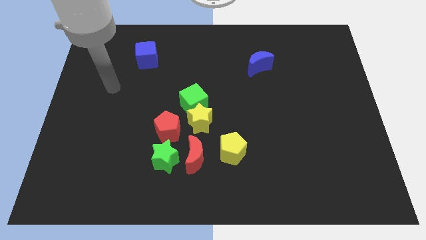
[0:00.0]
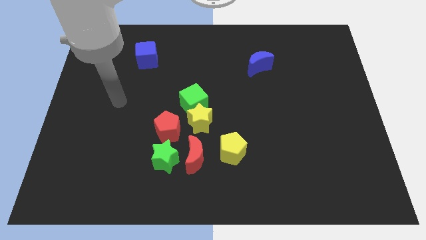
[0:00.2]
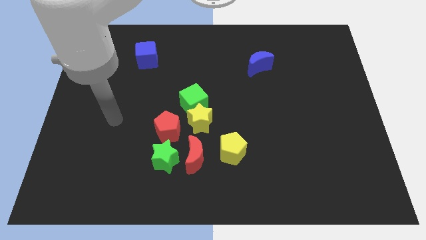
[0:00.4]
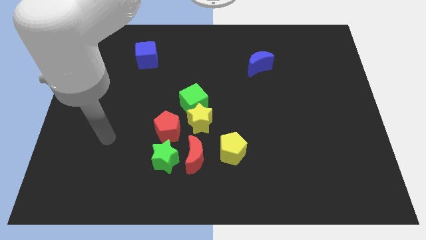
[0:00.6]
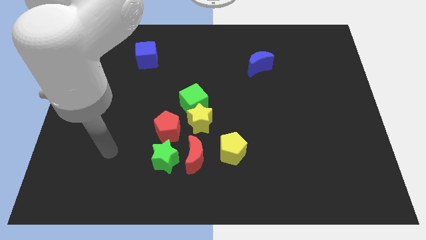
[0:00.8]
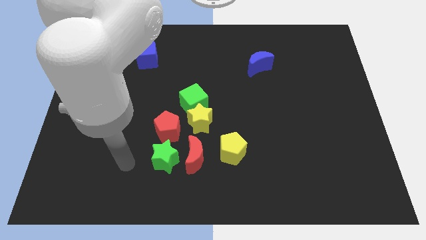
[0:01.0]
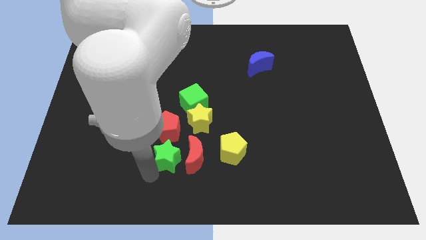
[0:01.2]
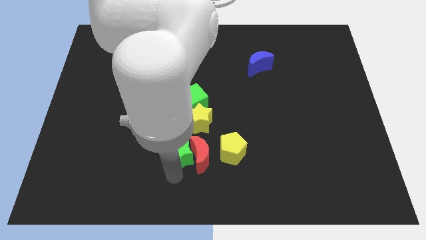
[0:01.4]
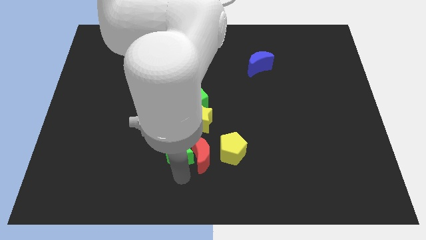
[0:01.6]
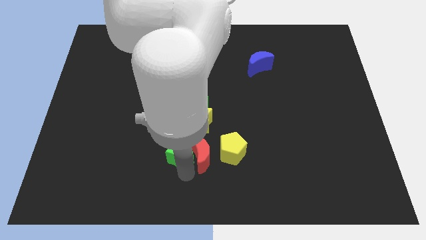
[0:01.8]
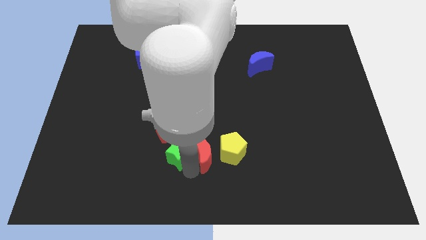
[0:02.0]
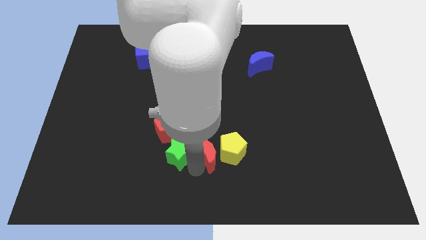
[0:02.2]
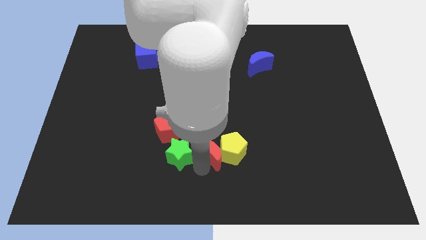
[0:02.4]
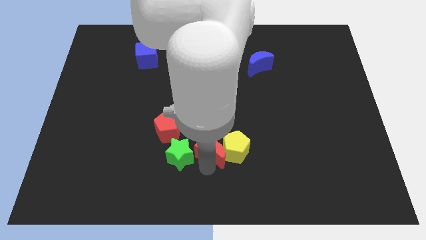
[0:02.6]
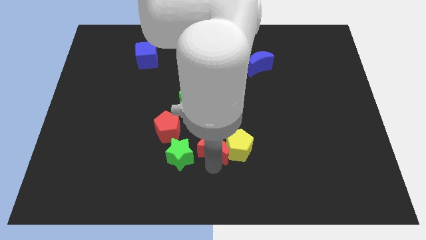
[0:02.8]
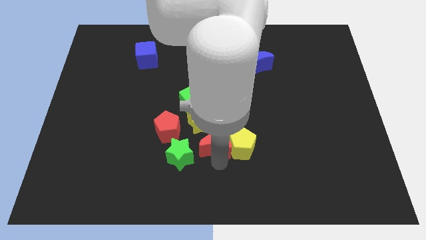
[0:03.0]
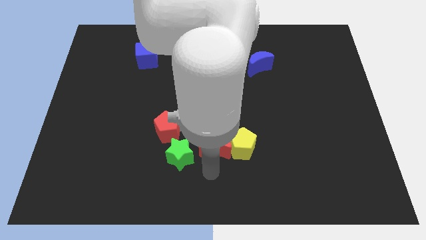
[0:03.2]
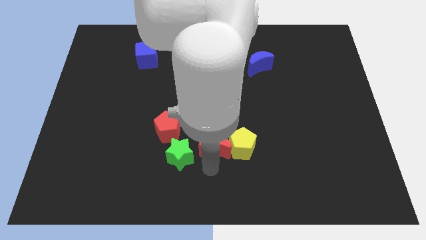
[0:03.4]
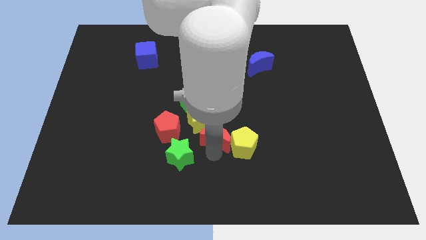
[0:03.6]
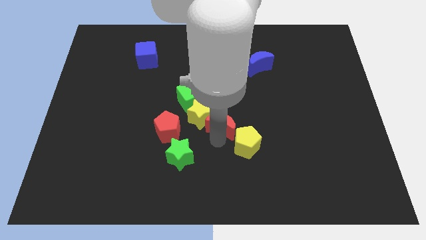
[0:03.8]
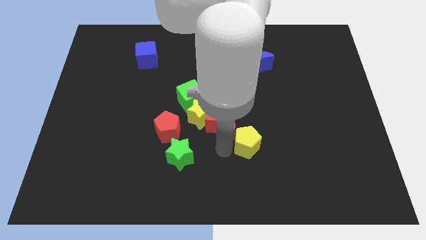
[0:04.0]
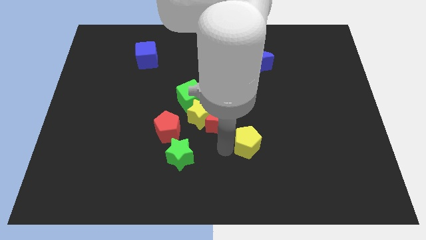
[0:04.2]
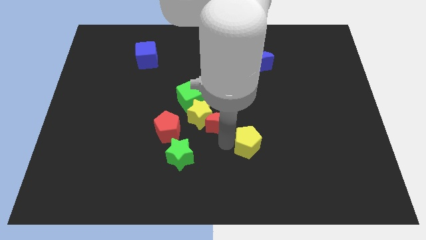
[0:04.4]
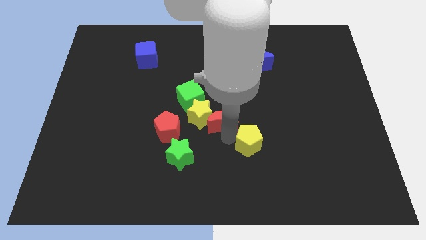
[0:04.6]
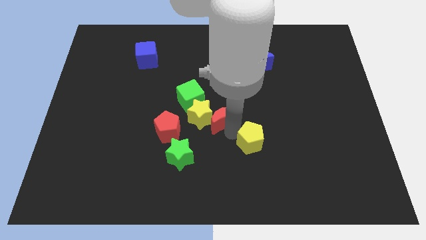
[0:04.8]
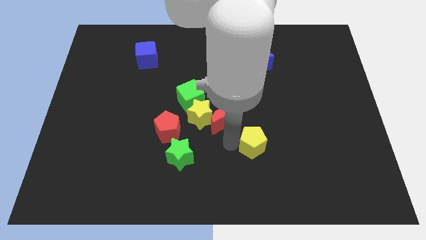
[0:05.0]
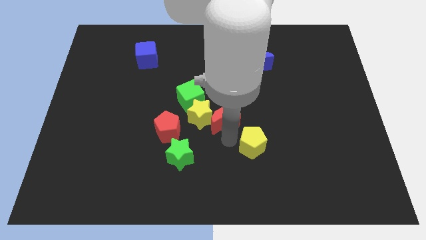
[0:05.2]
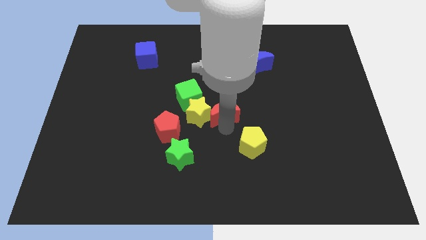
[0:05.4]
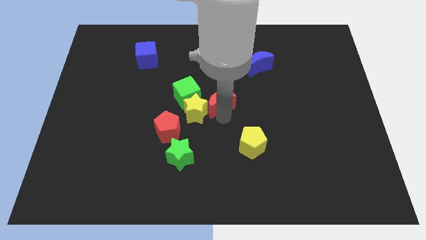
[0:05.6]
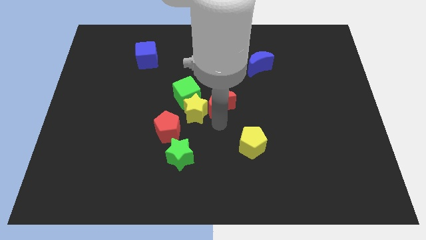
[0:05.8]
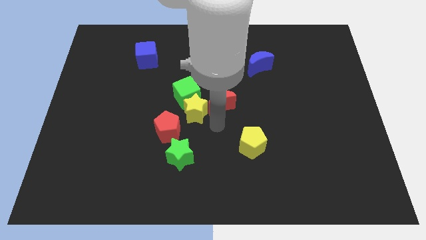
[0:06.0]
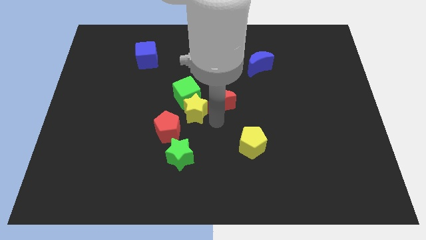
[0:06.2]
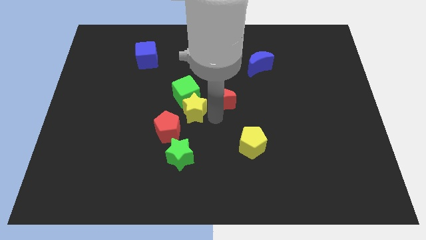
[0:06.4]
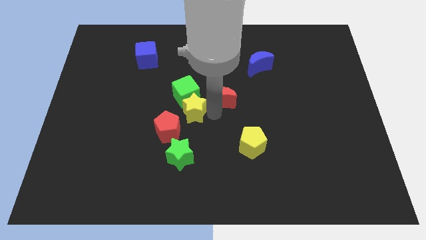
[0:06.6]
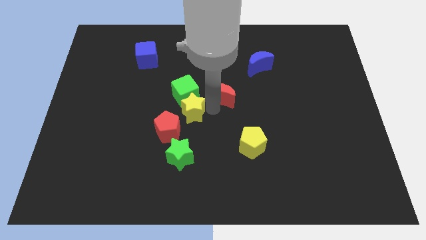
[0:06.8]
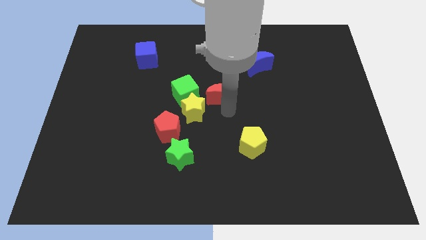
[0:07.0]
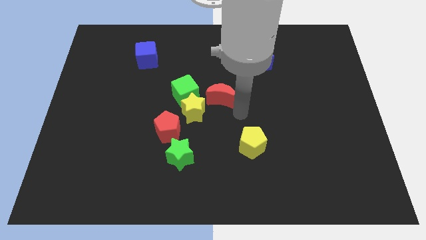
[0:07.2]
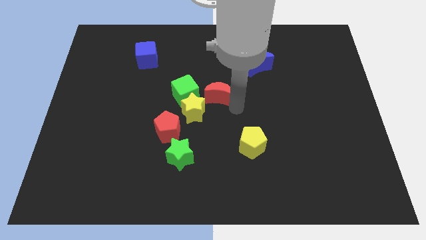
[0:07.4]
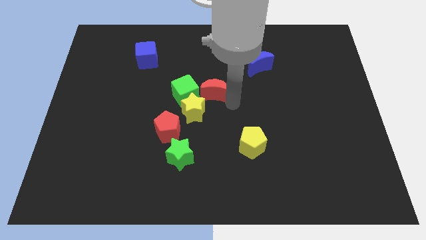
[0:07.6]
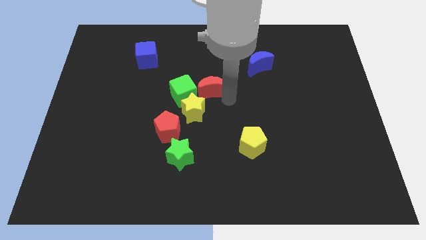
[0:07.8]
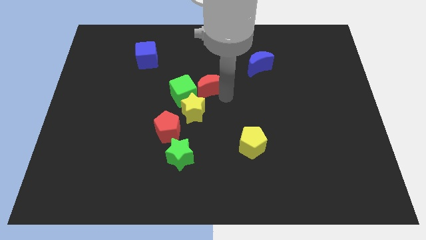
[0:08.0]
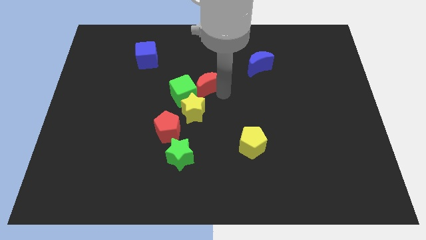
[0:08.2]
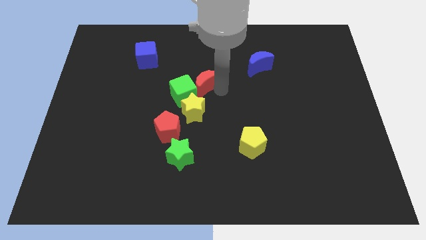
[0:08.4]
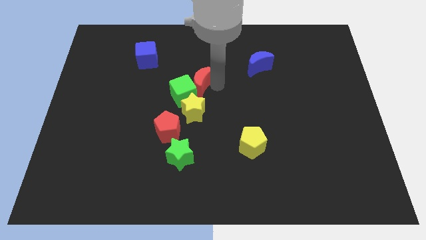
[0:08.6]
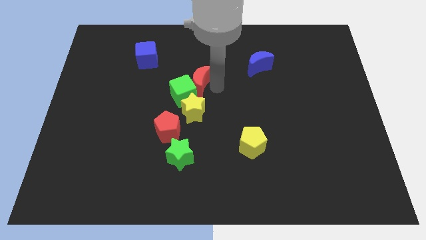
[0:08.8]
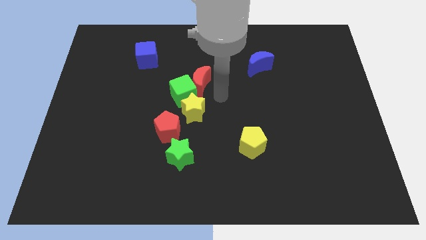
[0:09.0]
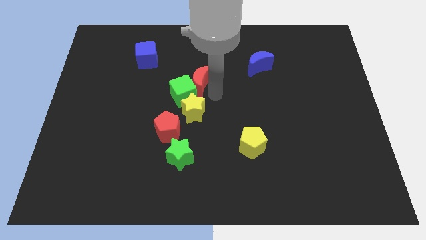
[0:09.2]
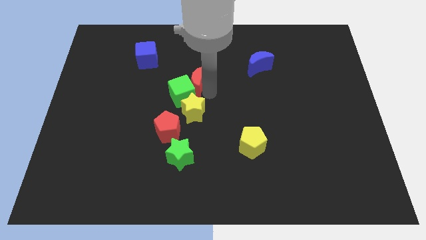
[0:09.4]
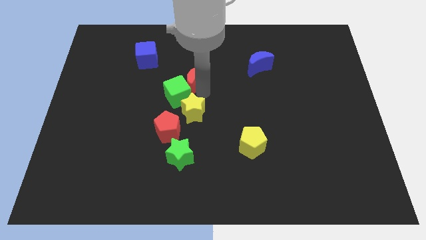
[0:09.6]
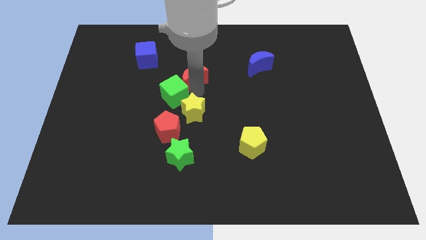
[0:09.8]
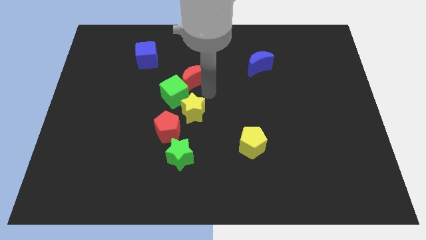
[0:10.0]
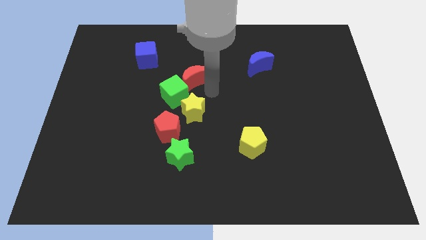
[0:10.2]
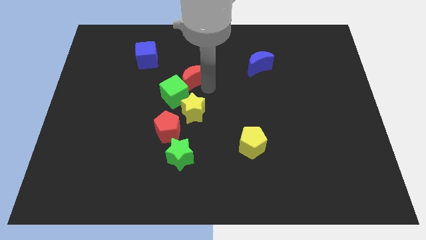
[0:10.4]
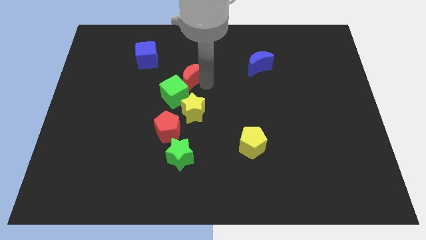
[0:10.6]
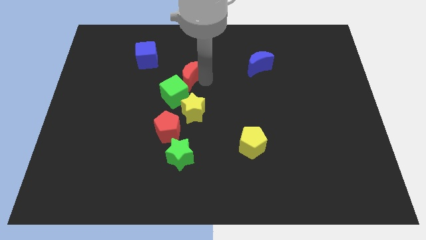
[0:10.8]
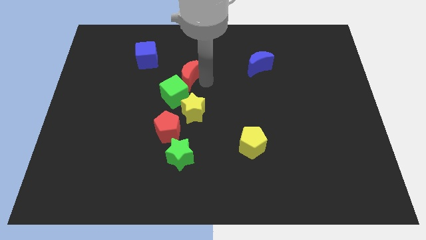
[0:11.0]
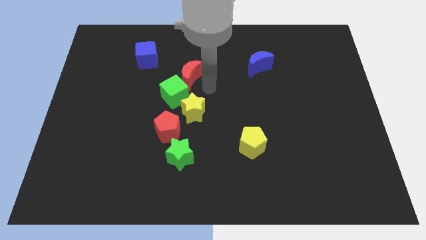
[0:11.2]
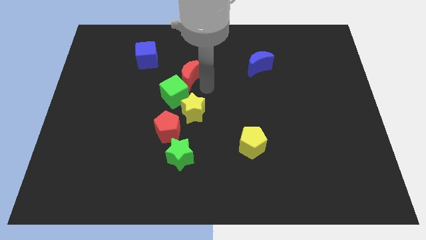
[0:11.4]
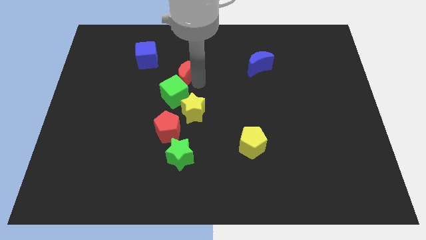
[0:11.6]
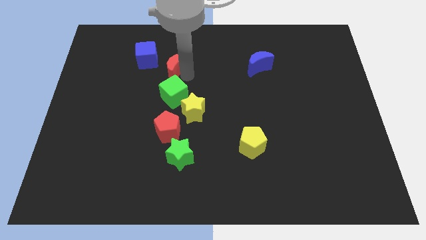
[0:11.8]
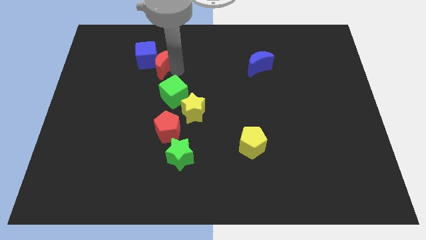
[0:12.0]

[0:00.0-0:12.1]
put the red moon close to the blue cube

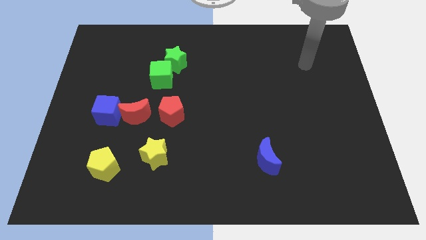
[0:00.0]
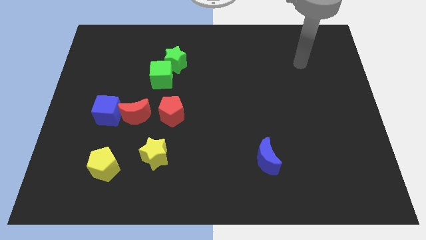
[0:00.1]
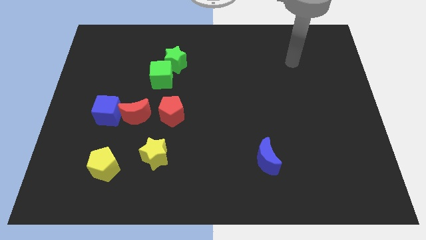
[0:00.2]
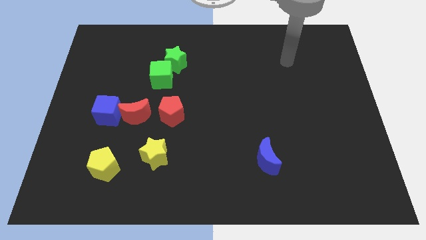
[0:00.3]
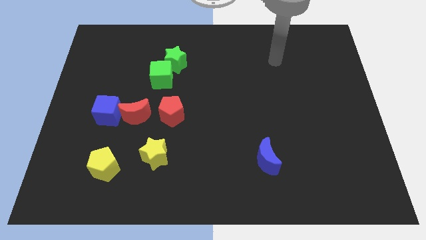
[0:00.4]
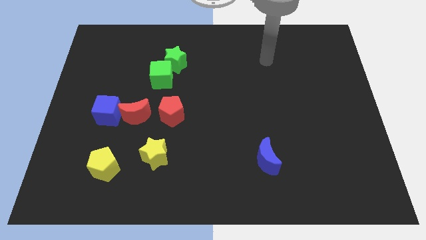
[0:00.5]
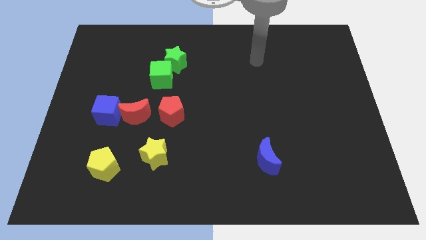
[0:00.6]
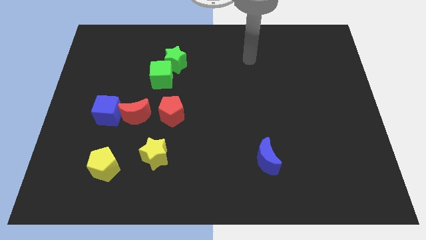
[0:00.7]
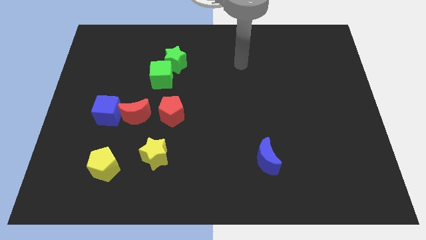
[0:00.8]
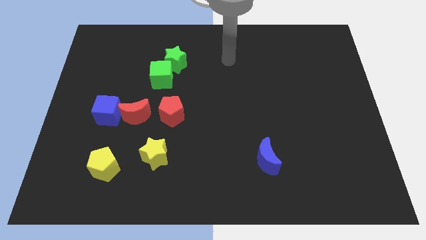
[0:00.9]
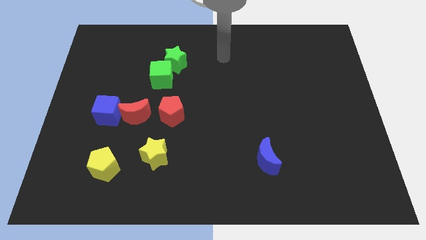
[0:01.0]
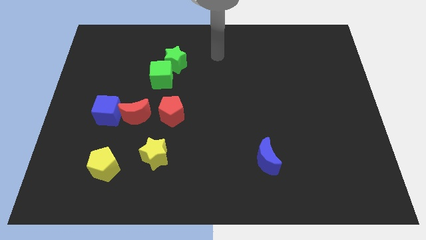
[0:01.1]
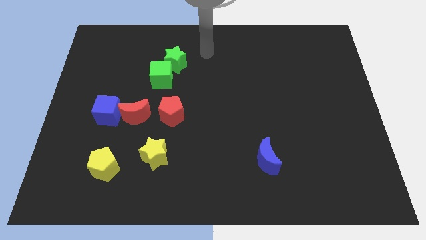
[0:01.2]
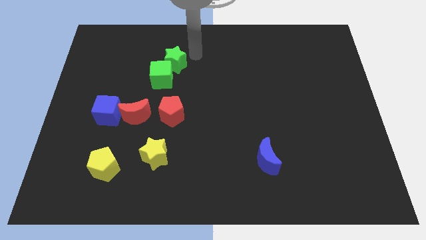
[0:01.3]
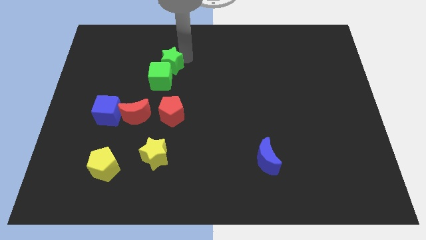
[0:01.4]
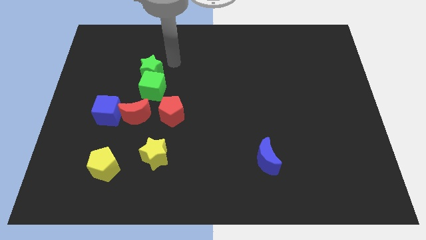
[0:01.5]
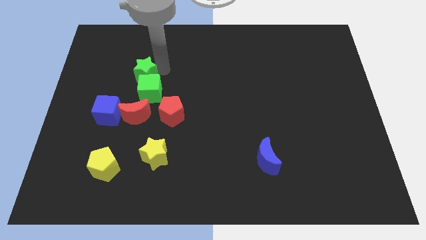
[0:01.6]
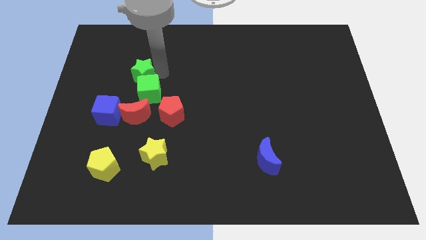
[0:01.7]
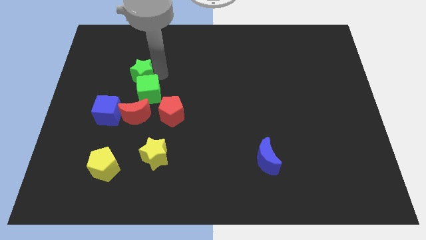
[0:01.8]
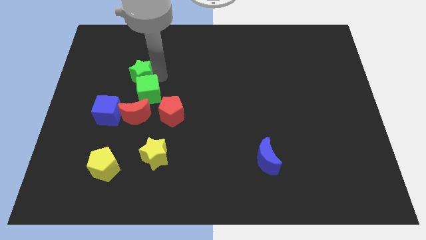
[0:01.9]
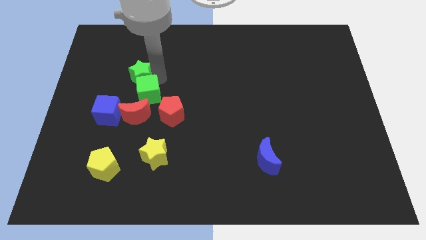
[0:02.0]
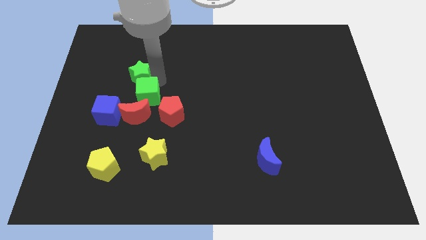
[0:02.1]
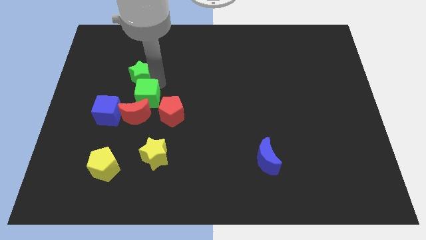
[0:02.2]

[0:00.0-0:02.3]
slide the green cube to the red moon
